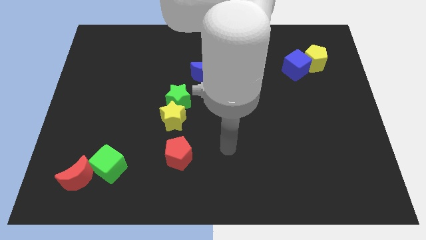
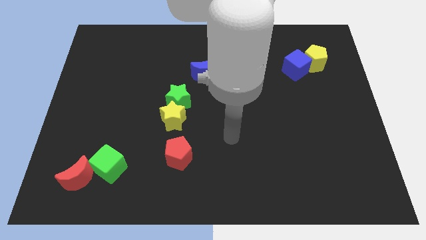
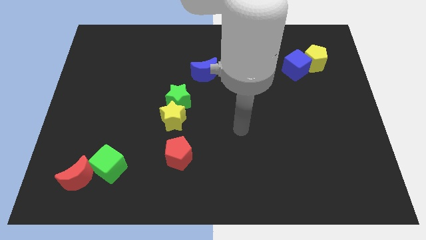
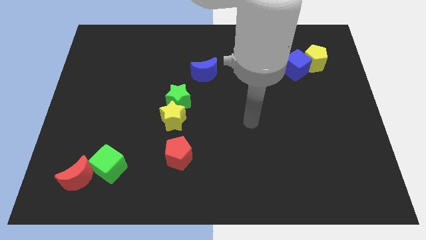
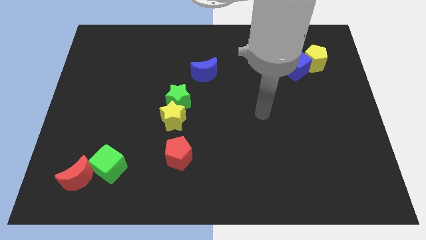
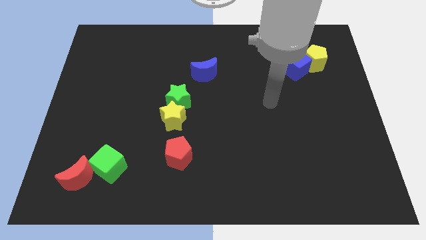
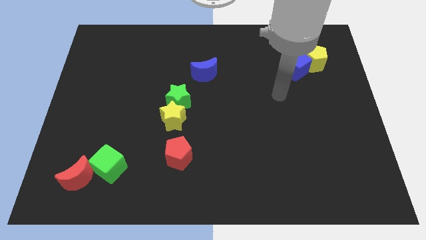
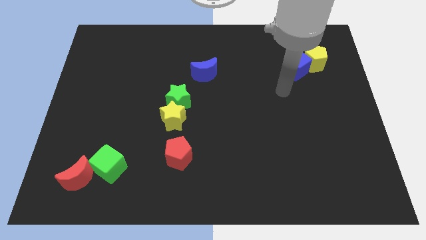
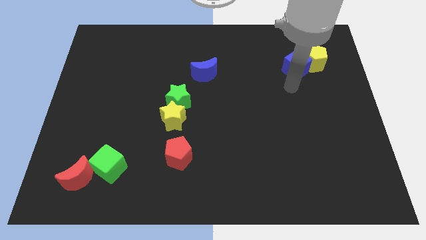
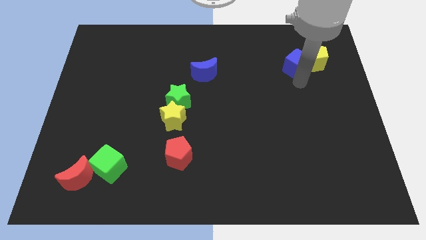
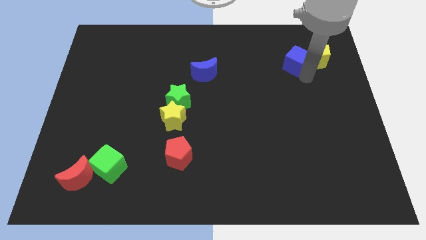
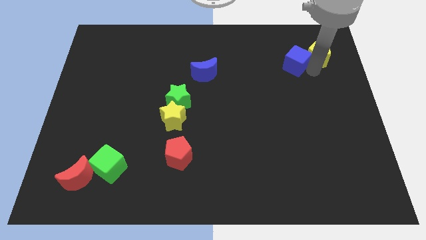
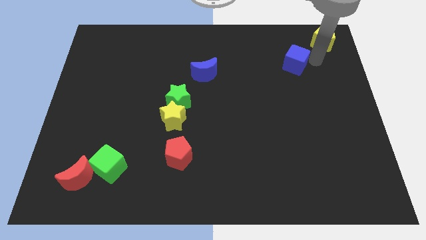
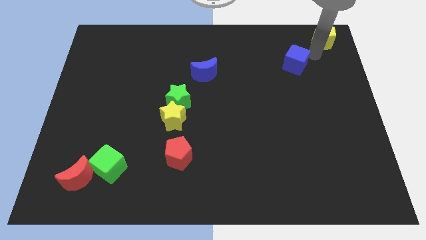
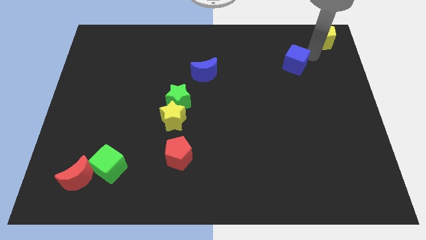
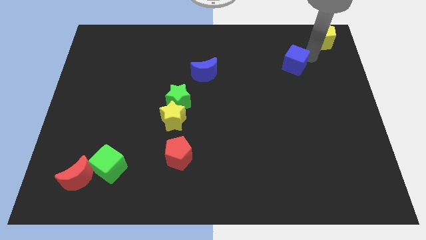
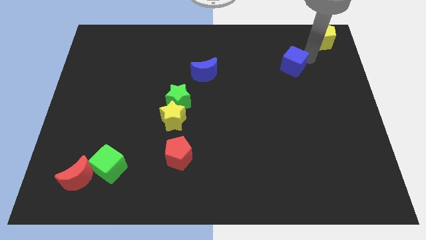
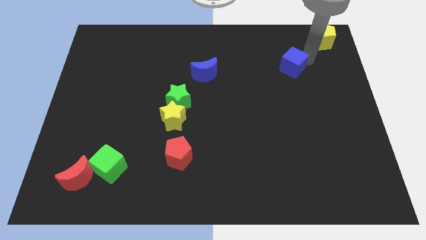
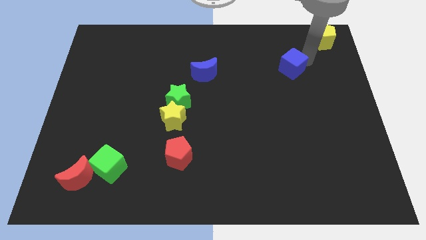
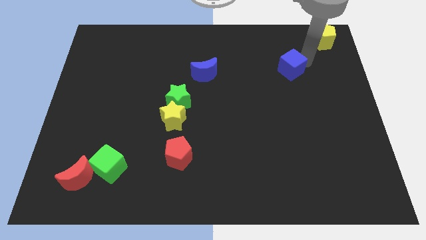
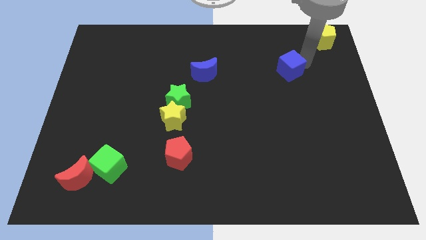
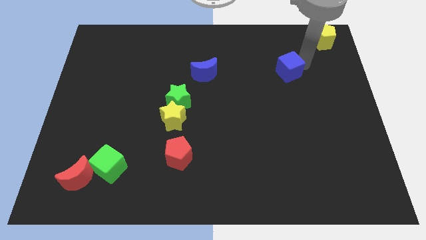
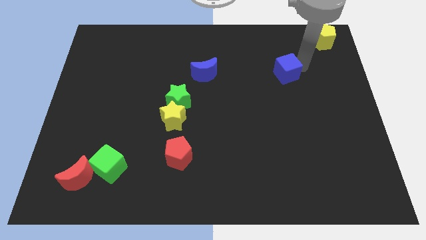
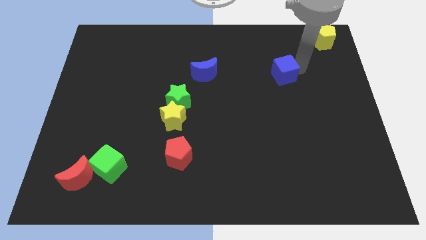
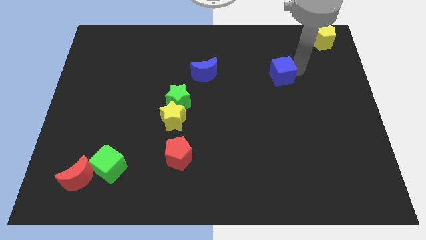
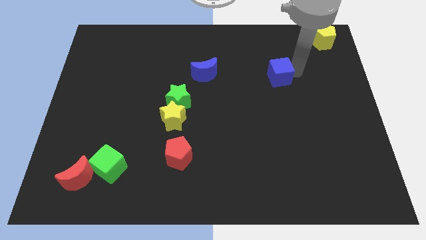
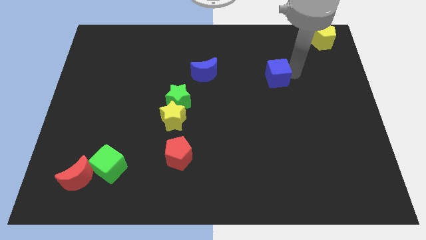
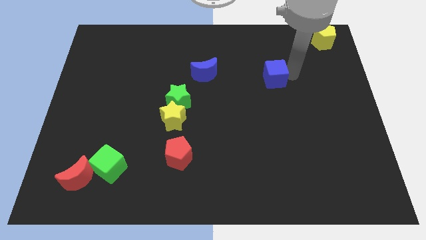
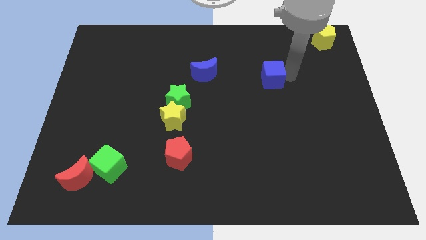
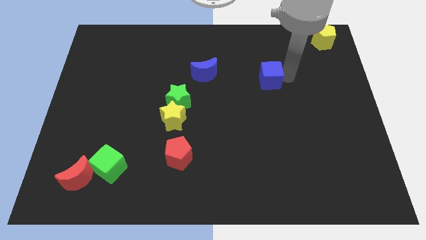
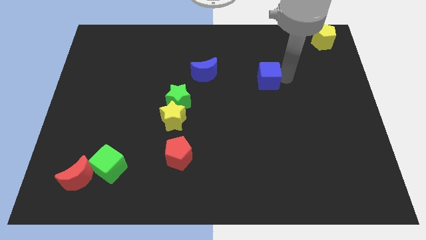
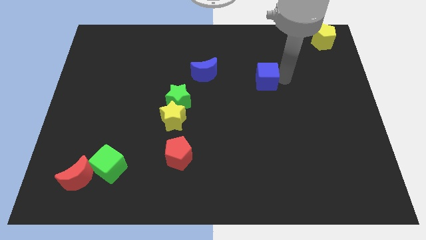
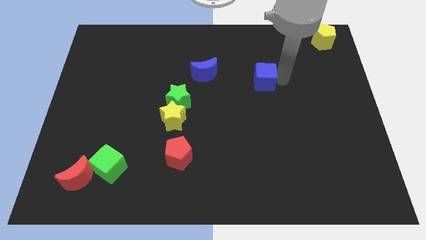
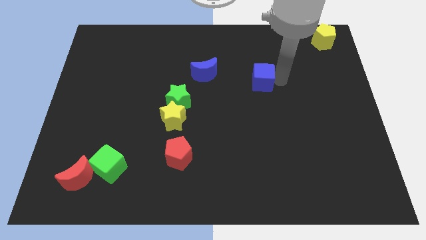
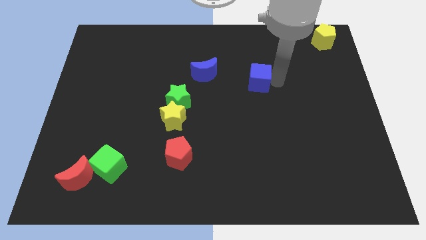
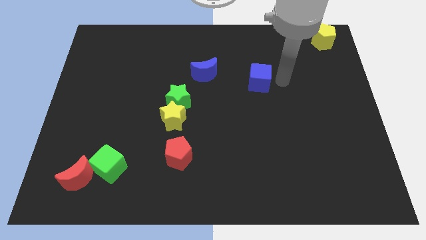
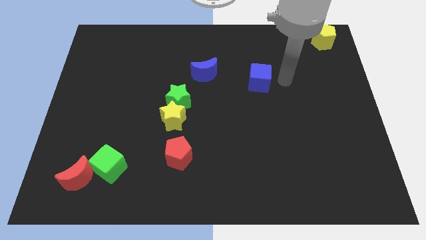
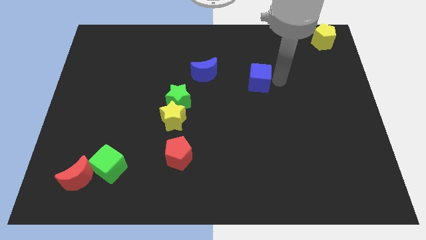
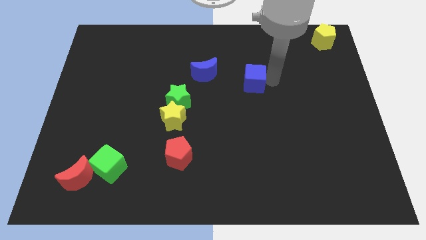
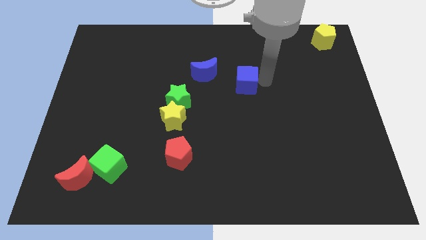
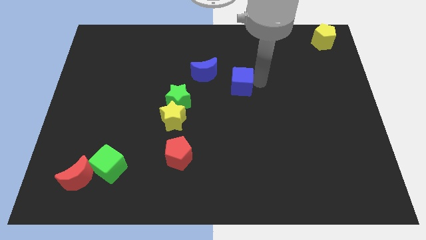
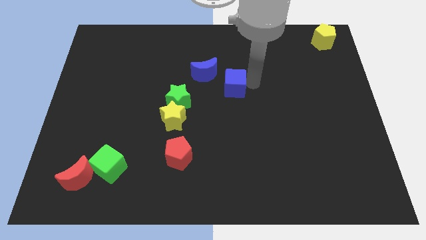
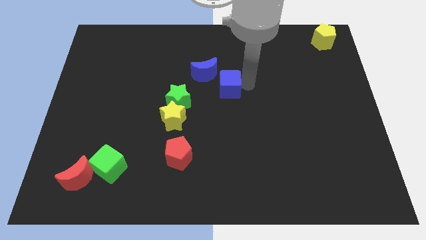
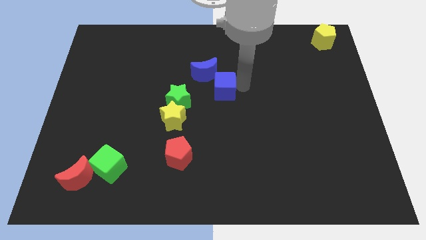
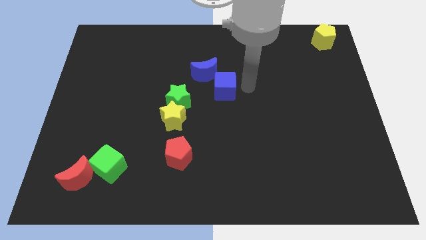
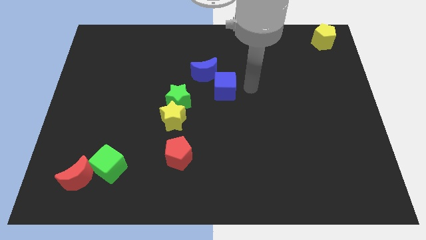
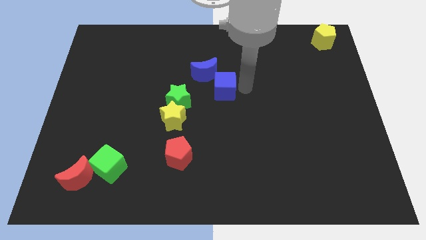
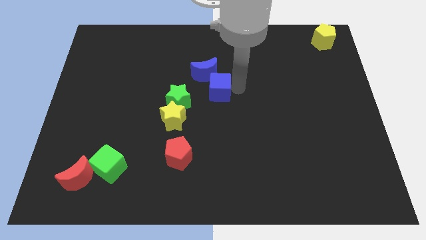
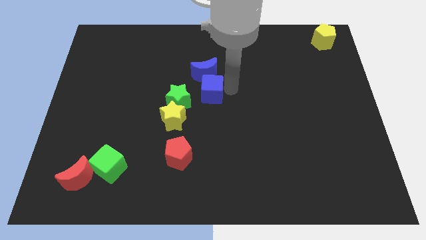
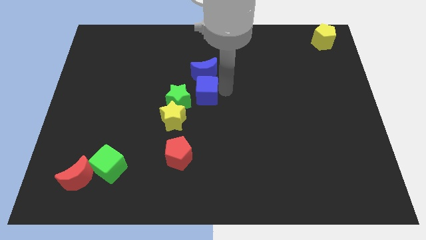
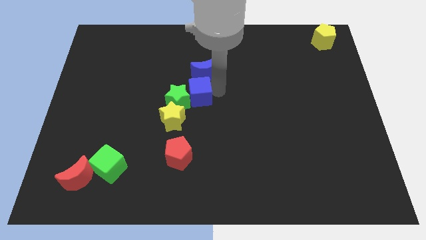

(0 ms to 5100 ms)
move the blue cube next to the green star
